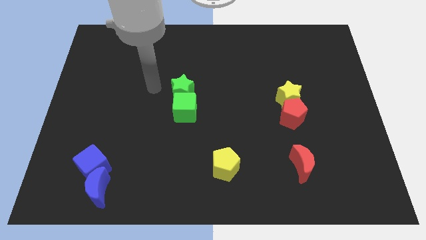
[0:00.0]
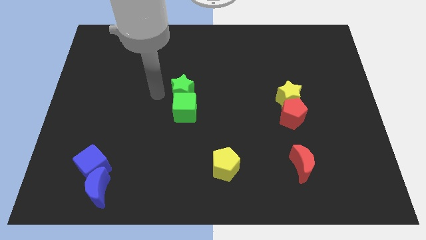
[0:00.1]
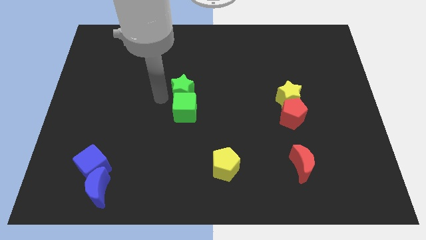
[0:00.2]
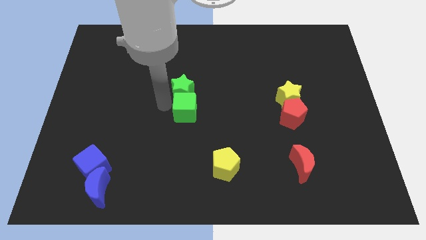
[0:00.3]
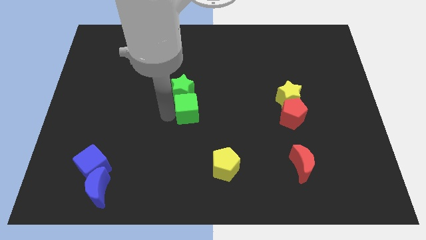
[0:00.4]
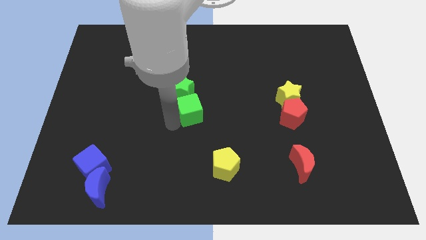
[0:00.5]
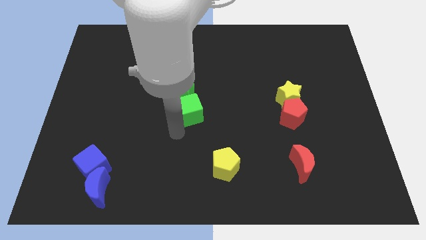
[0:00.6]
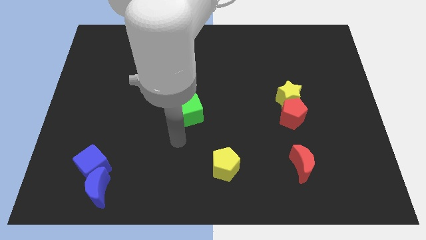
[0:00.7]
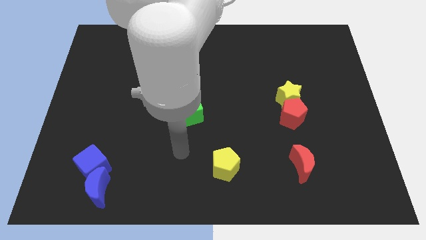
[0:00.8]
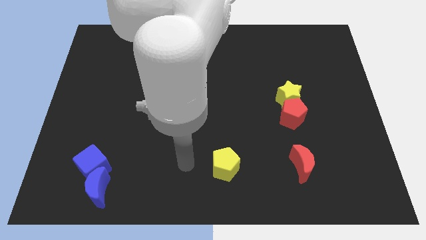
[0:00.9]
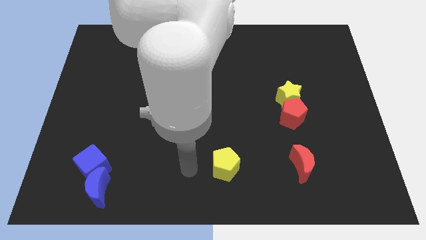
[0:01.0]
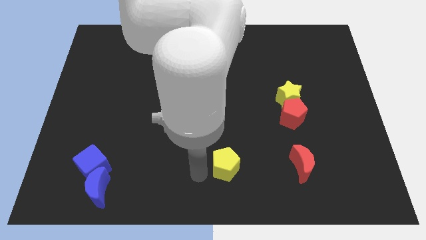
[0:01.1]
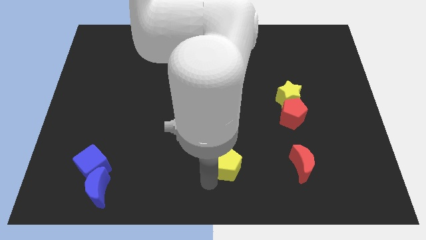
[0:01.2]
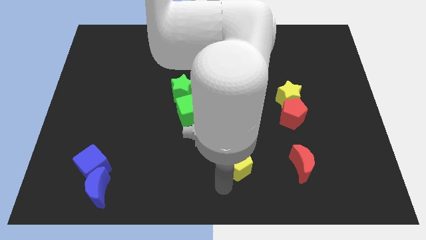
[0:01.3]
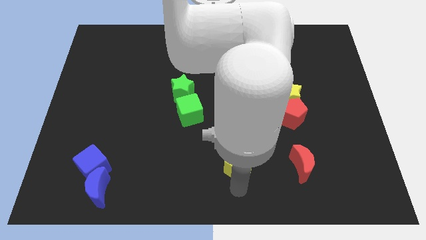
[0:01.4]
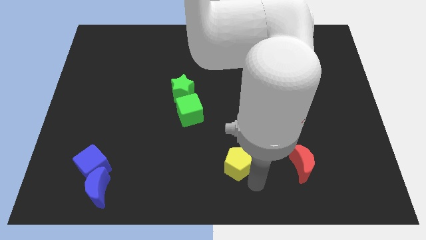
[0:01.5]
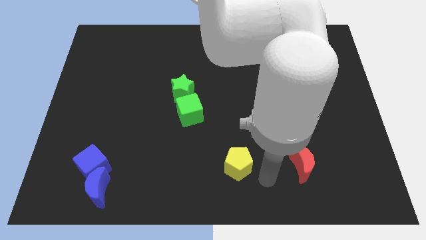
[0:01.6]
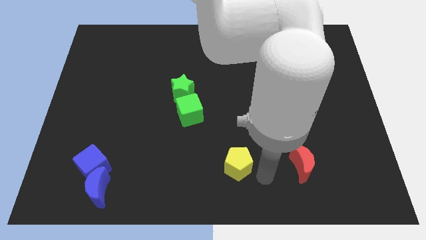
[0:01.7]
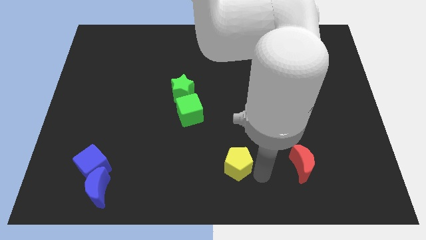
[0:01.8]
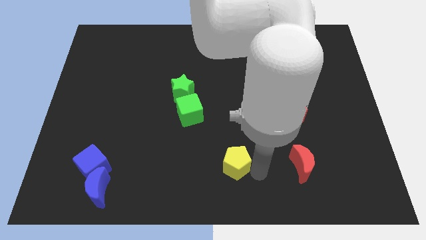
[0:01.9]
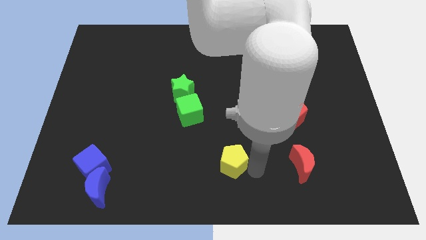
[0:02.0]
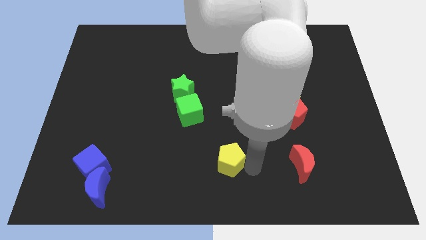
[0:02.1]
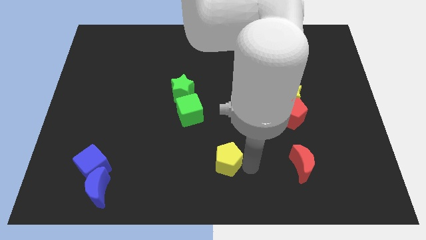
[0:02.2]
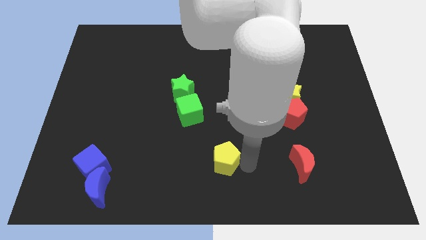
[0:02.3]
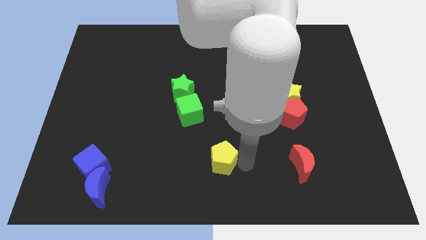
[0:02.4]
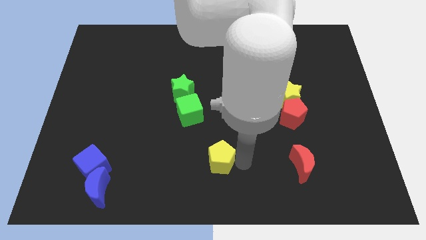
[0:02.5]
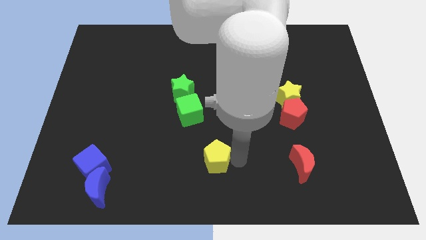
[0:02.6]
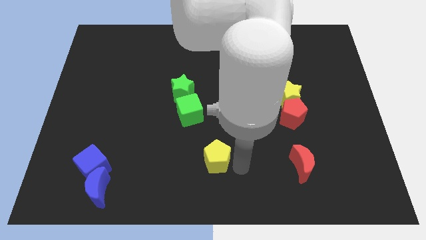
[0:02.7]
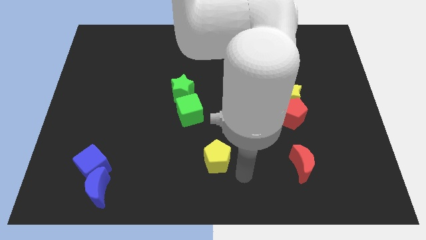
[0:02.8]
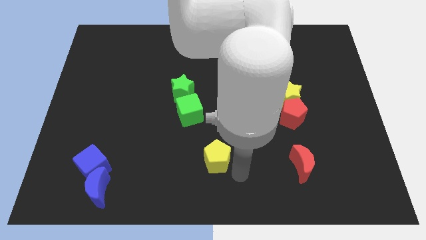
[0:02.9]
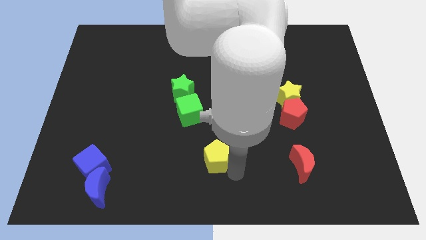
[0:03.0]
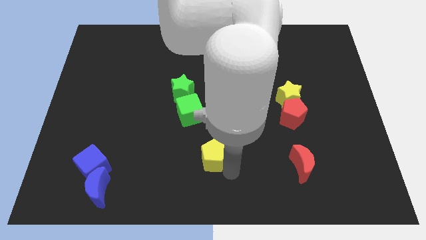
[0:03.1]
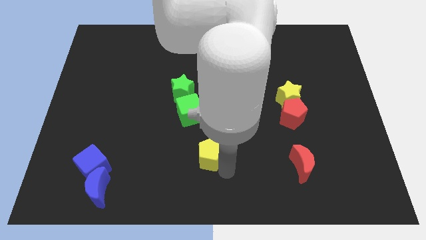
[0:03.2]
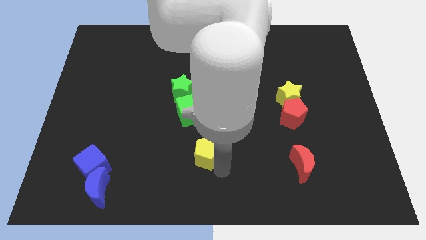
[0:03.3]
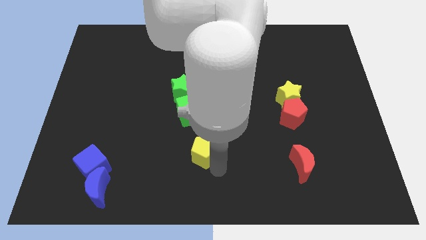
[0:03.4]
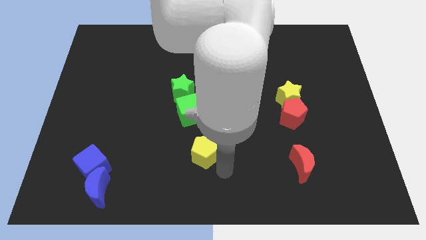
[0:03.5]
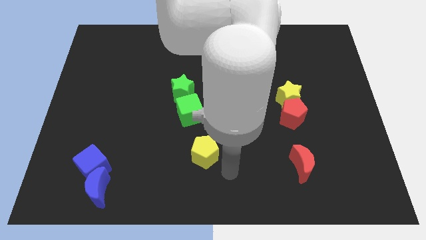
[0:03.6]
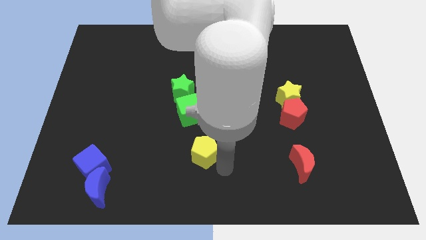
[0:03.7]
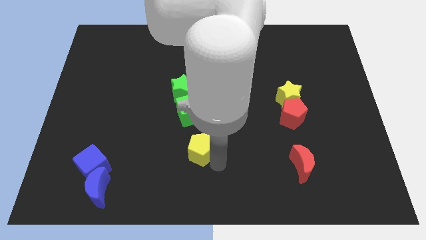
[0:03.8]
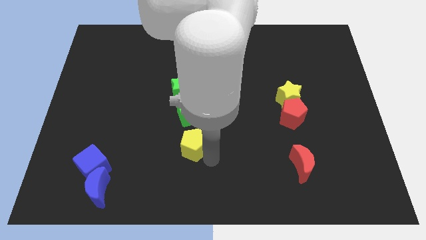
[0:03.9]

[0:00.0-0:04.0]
slightly slide the yellow pentagon up and then left

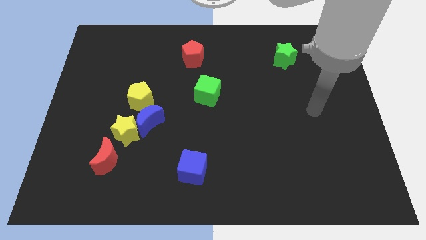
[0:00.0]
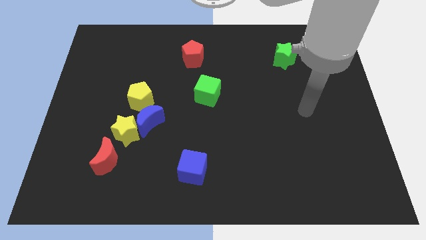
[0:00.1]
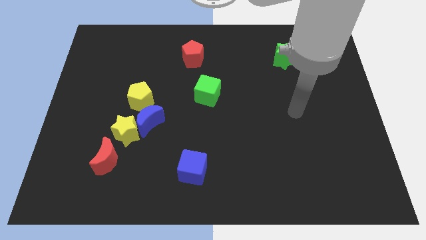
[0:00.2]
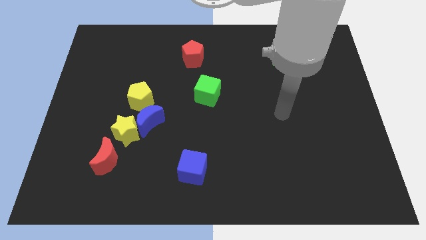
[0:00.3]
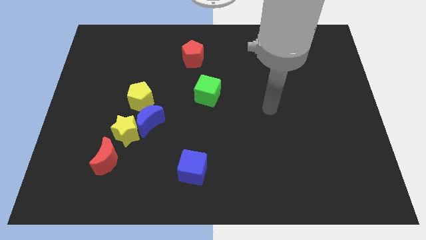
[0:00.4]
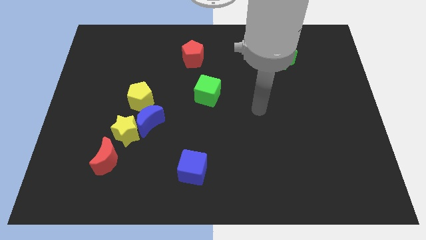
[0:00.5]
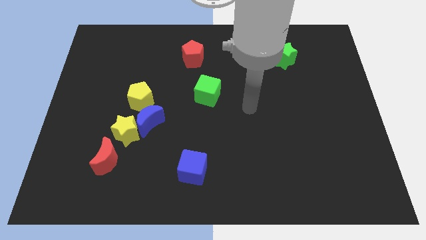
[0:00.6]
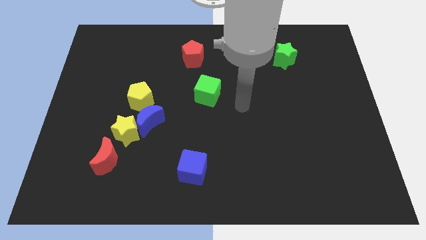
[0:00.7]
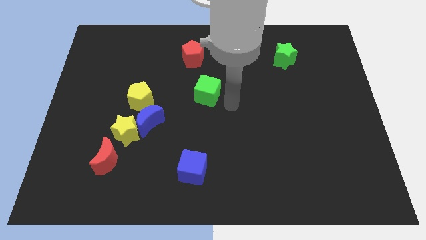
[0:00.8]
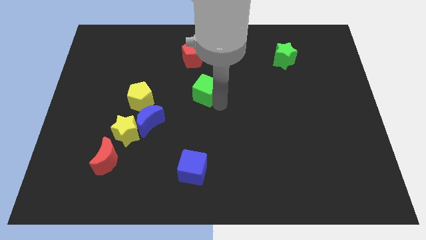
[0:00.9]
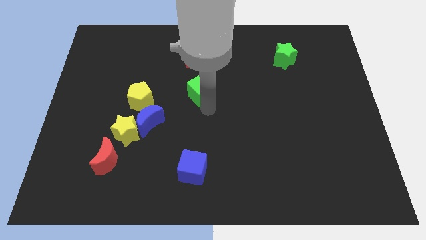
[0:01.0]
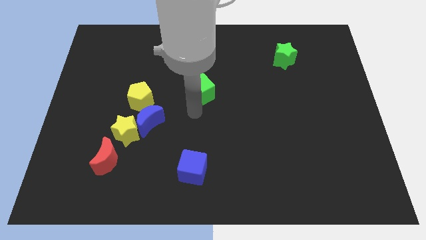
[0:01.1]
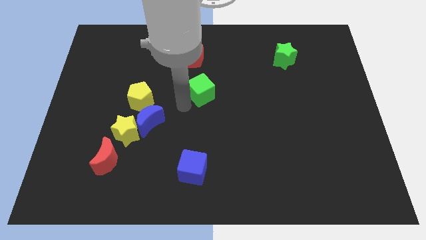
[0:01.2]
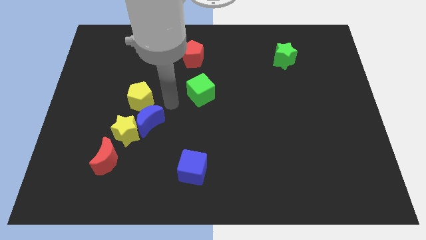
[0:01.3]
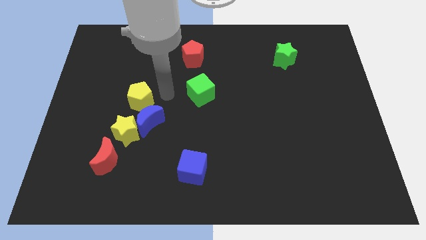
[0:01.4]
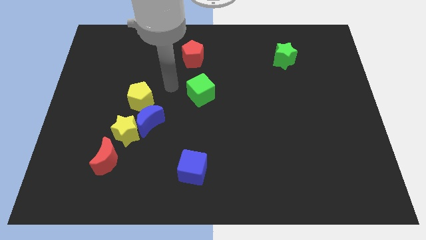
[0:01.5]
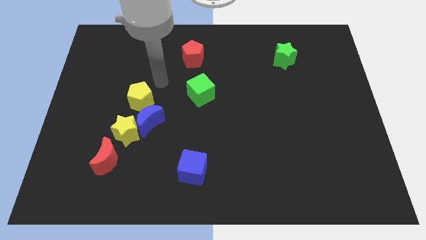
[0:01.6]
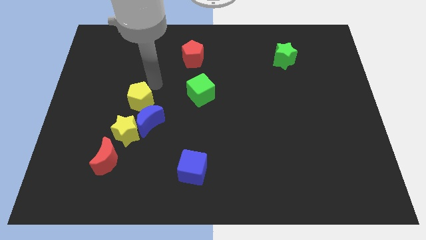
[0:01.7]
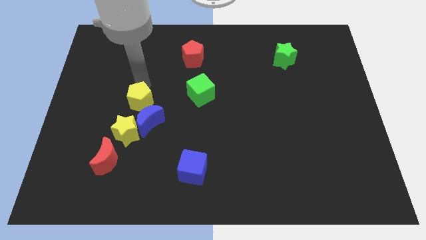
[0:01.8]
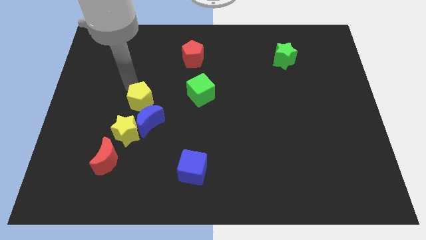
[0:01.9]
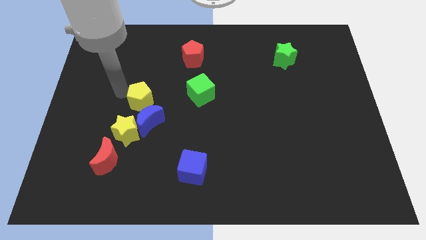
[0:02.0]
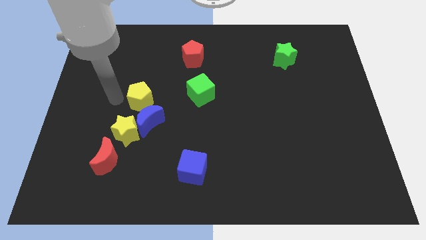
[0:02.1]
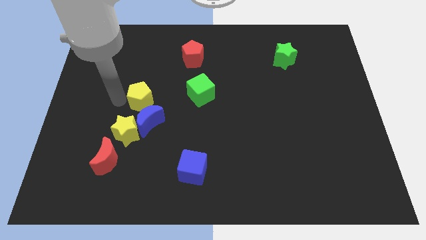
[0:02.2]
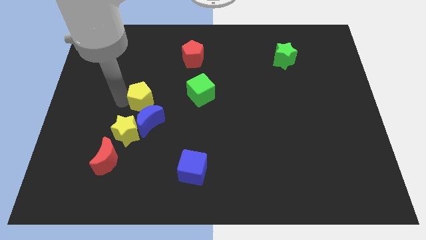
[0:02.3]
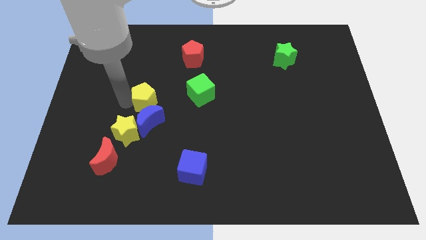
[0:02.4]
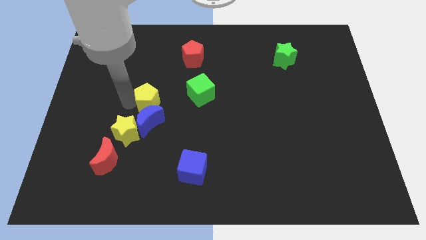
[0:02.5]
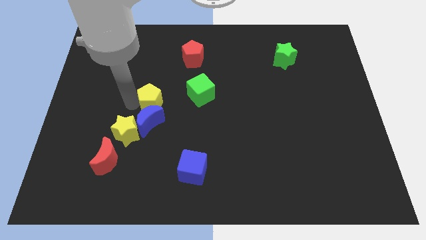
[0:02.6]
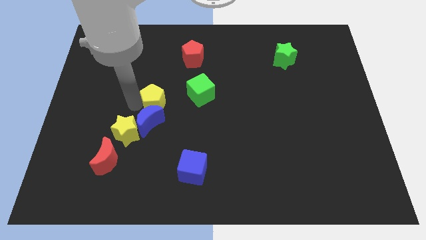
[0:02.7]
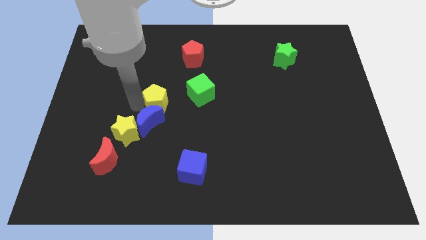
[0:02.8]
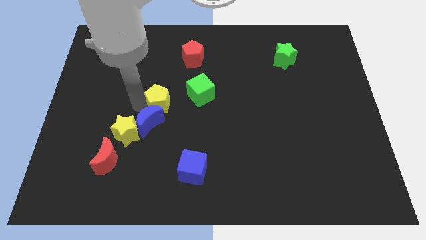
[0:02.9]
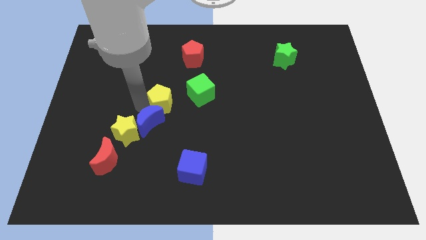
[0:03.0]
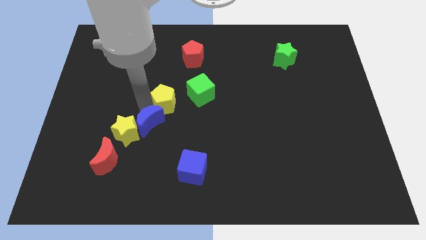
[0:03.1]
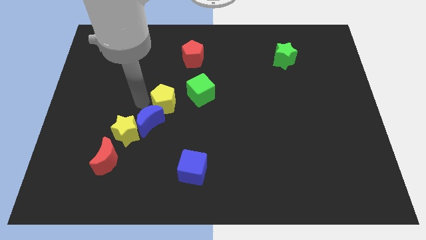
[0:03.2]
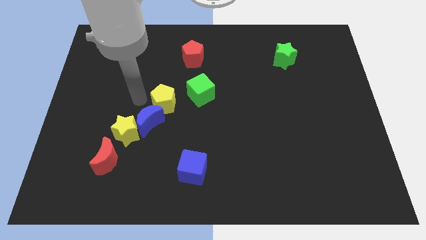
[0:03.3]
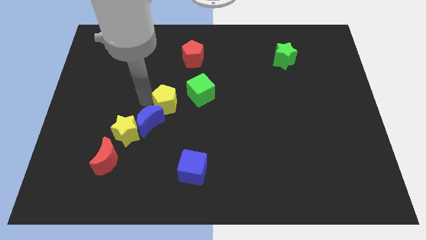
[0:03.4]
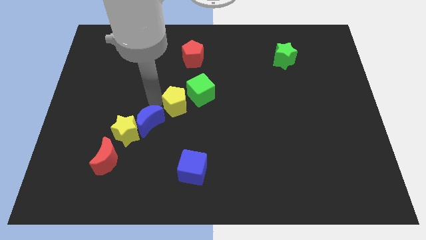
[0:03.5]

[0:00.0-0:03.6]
move the yellow pentagon to the right somewhat
